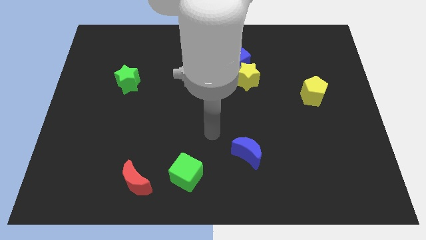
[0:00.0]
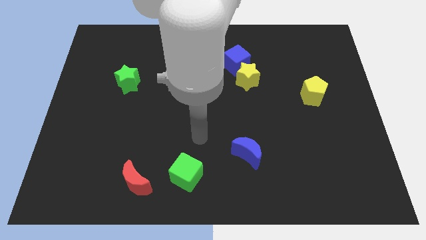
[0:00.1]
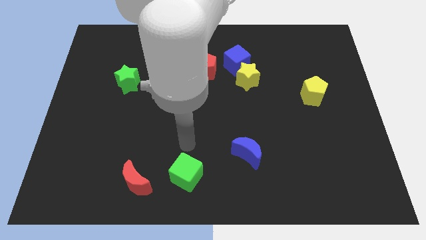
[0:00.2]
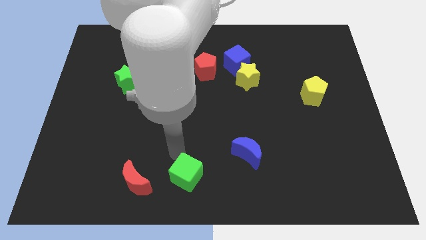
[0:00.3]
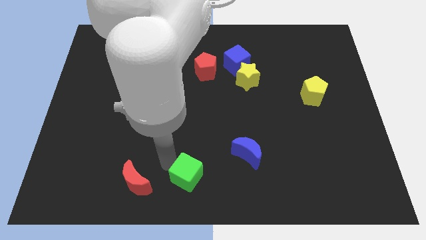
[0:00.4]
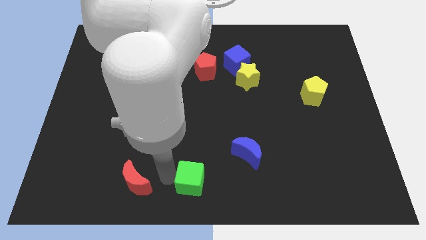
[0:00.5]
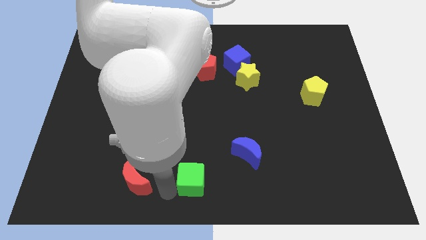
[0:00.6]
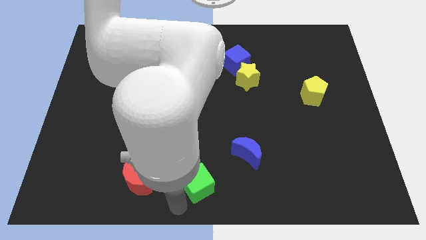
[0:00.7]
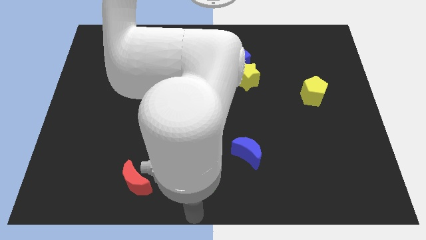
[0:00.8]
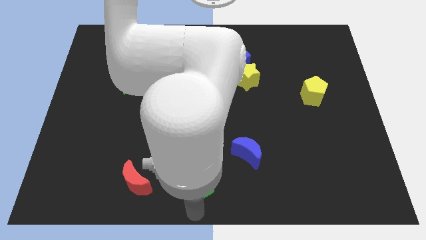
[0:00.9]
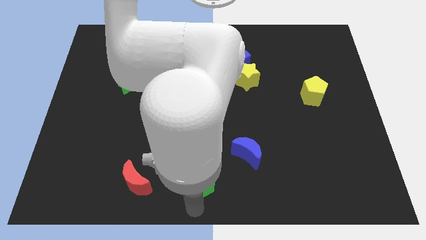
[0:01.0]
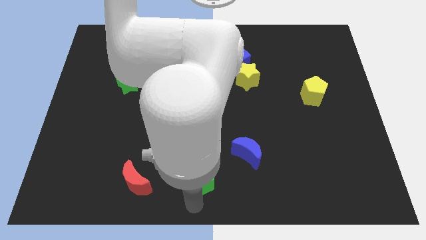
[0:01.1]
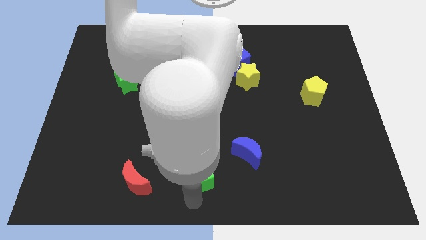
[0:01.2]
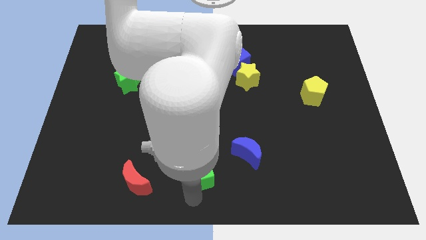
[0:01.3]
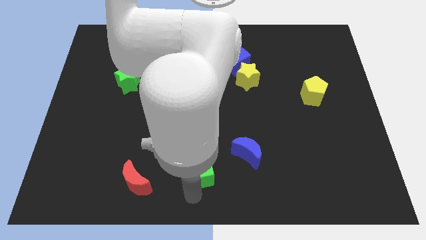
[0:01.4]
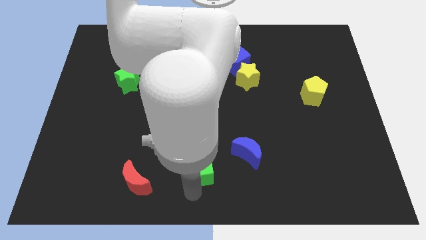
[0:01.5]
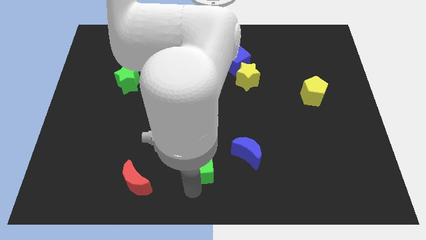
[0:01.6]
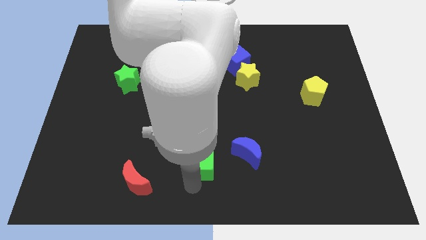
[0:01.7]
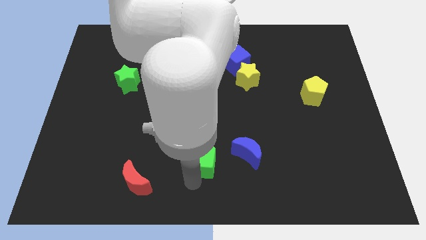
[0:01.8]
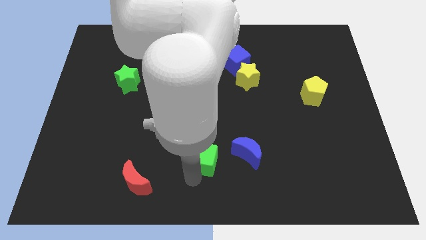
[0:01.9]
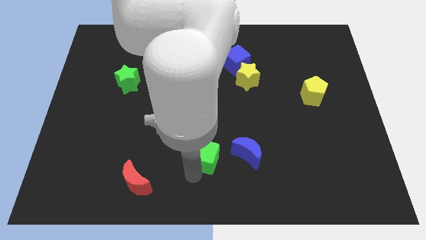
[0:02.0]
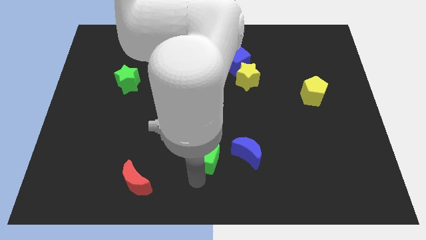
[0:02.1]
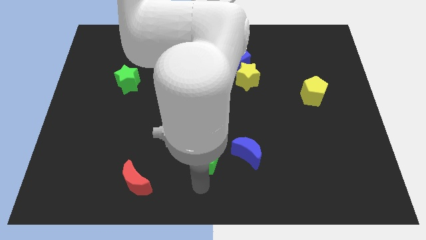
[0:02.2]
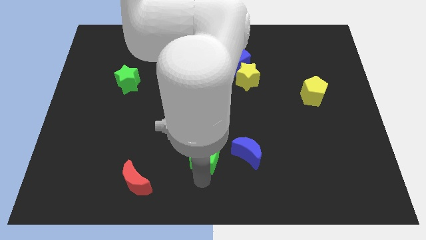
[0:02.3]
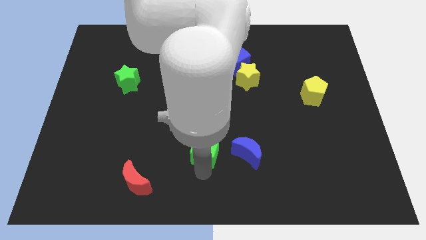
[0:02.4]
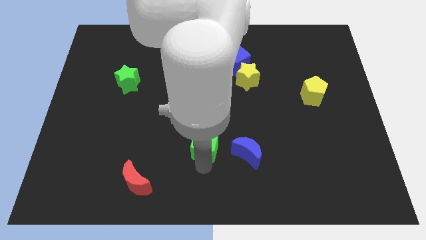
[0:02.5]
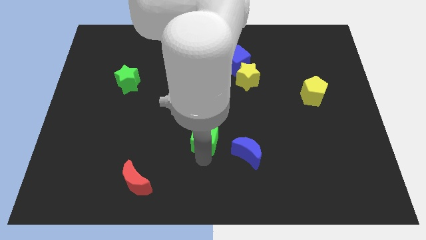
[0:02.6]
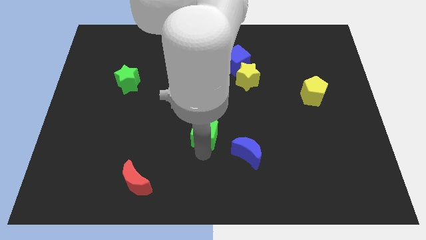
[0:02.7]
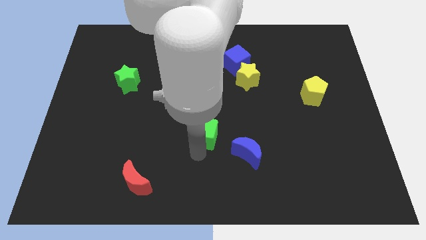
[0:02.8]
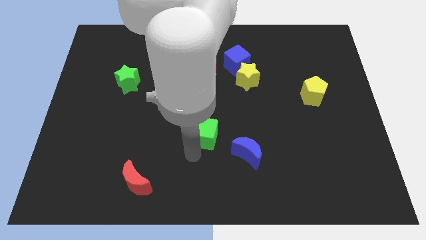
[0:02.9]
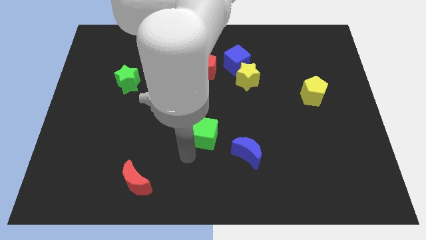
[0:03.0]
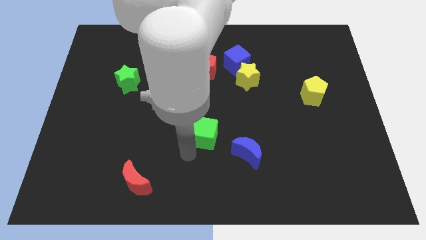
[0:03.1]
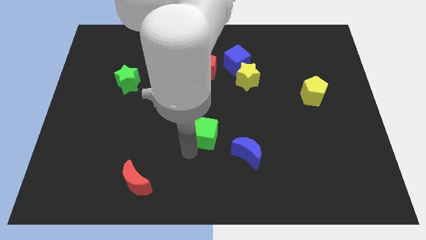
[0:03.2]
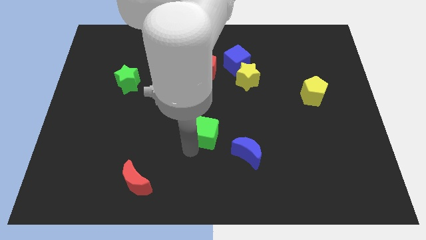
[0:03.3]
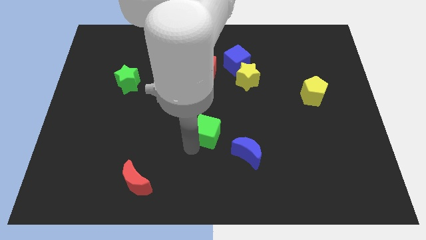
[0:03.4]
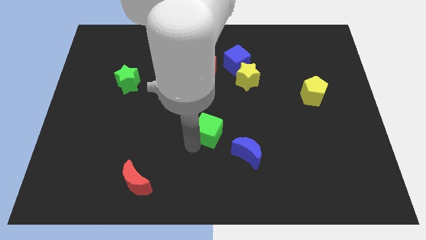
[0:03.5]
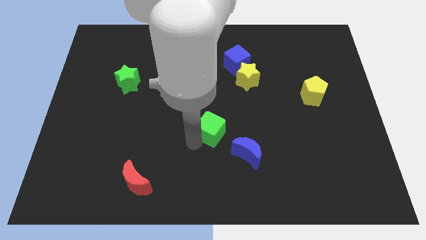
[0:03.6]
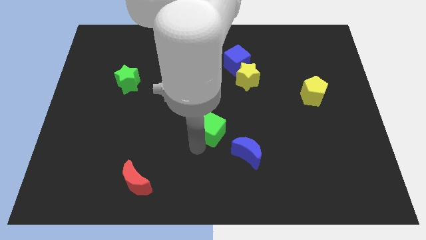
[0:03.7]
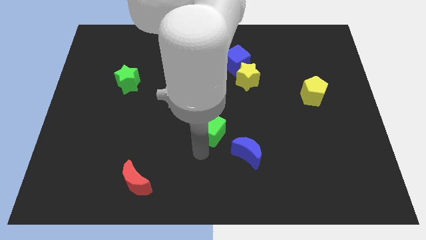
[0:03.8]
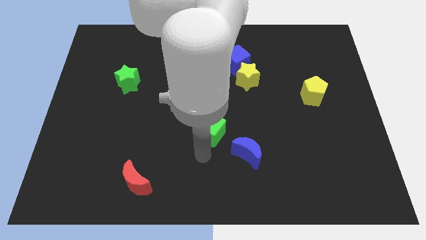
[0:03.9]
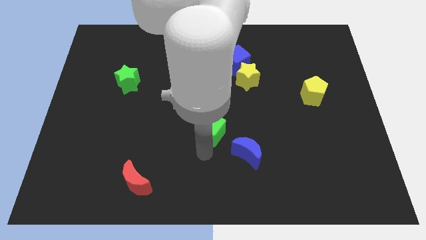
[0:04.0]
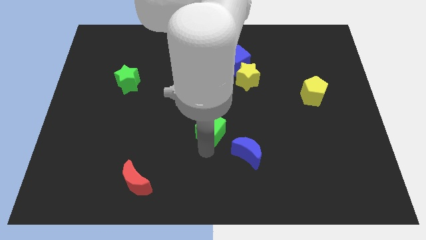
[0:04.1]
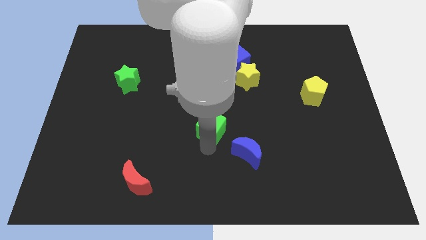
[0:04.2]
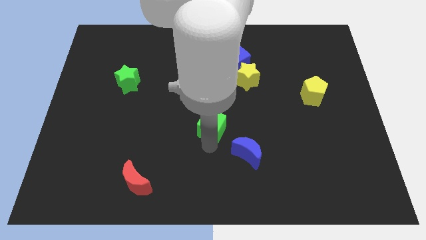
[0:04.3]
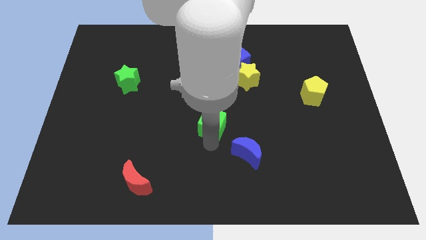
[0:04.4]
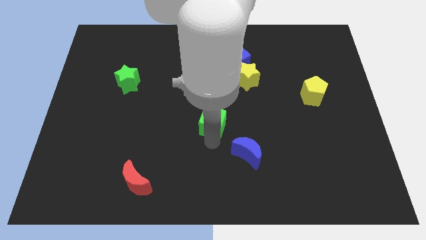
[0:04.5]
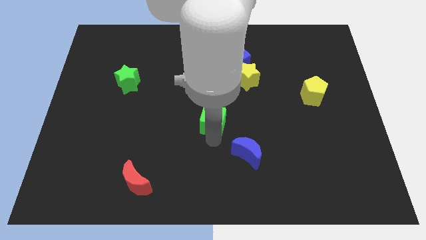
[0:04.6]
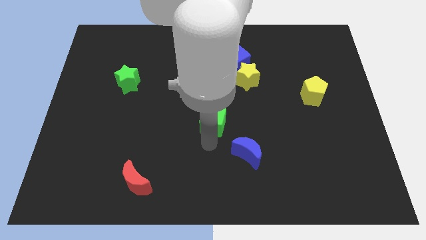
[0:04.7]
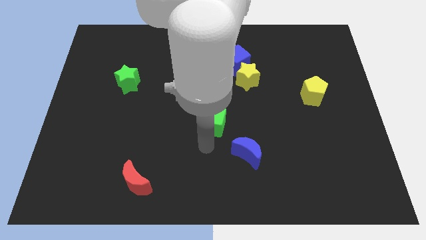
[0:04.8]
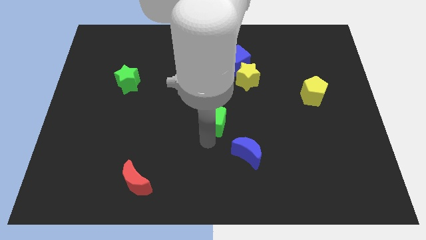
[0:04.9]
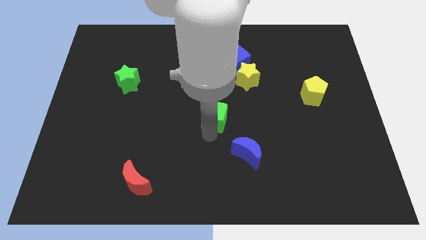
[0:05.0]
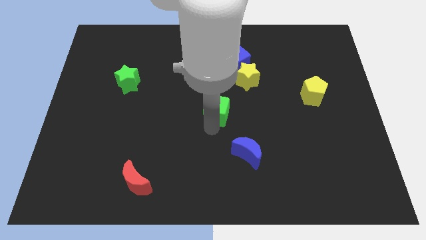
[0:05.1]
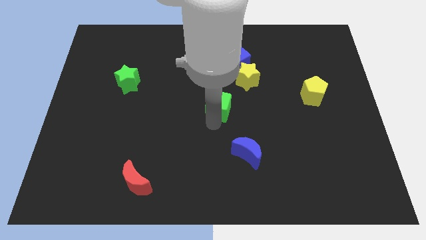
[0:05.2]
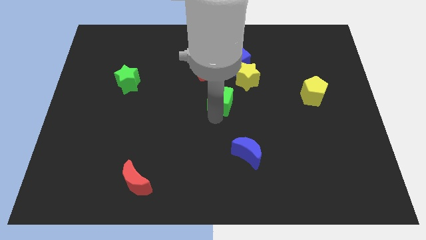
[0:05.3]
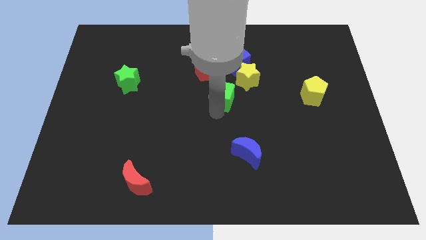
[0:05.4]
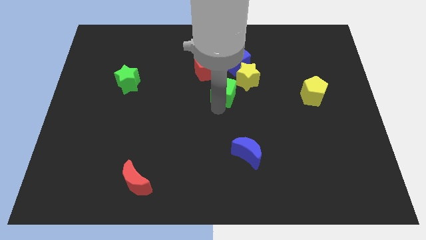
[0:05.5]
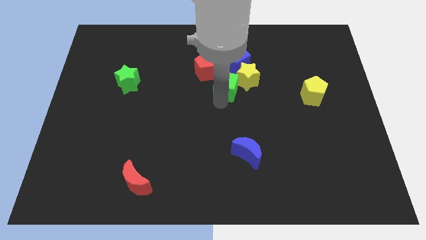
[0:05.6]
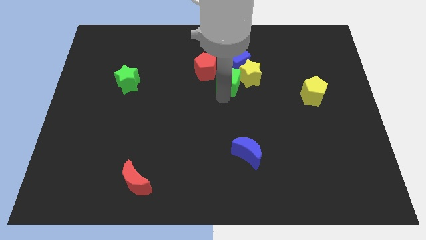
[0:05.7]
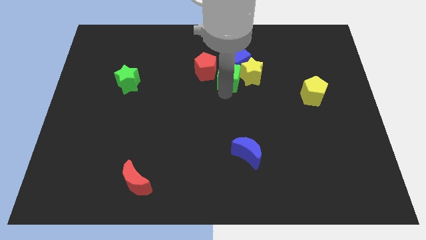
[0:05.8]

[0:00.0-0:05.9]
slide the green cube next to the blue cube

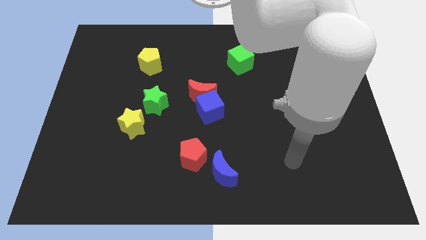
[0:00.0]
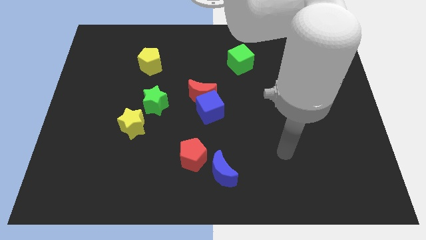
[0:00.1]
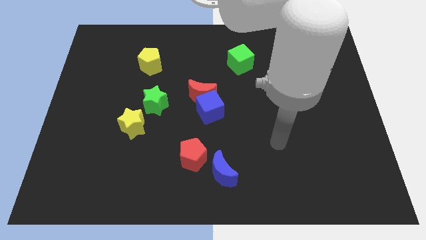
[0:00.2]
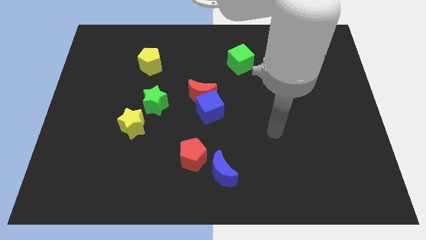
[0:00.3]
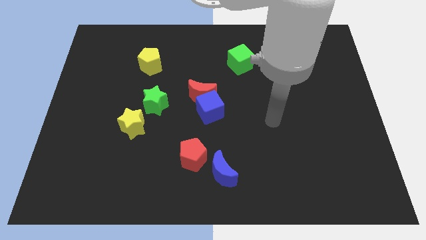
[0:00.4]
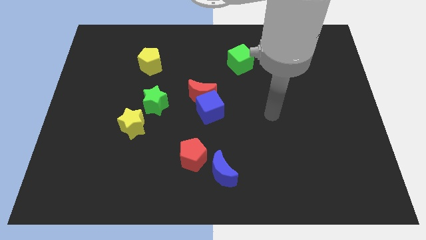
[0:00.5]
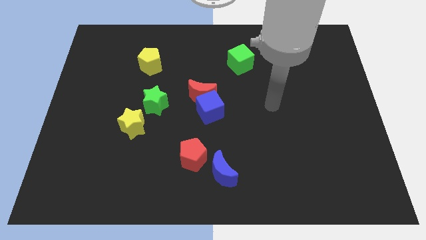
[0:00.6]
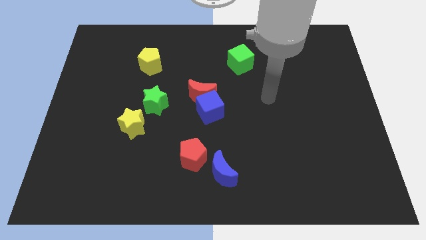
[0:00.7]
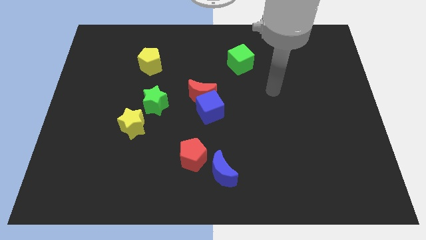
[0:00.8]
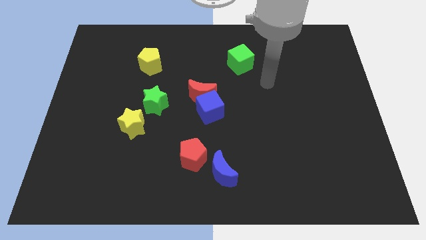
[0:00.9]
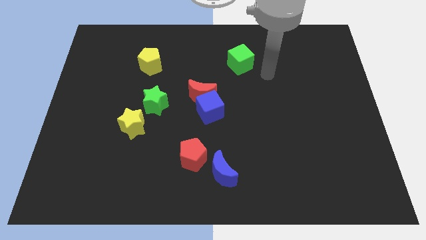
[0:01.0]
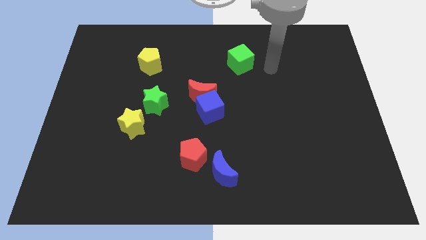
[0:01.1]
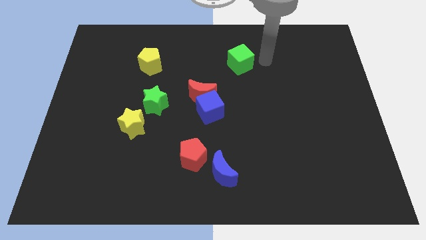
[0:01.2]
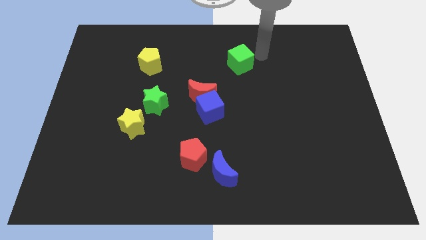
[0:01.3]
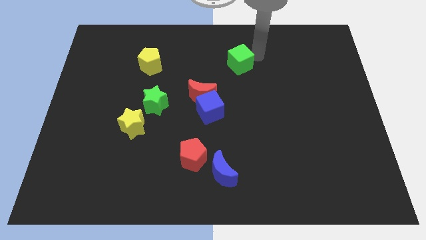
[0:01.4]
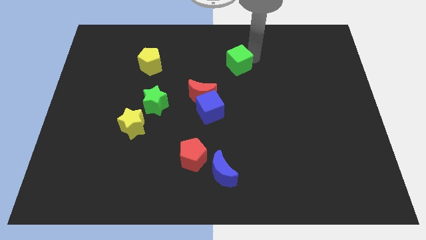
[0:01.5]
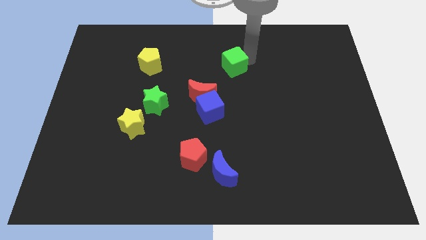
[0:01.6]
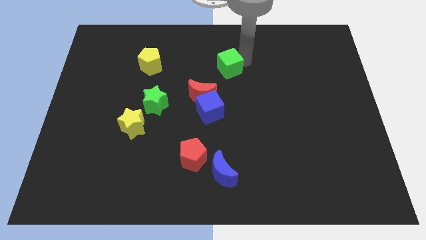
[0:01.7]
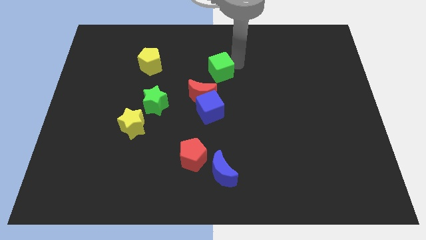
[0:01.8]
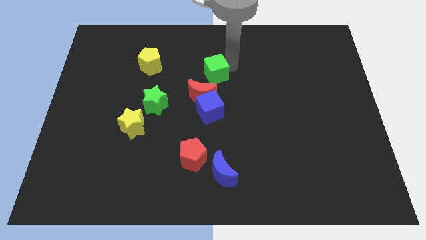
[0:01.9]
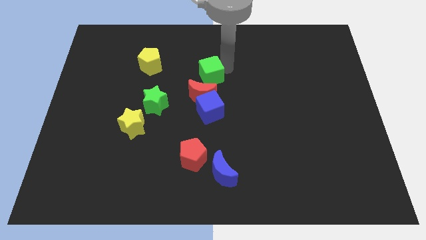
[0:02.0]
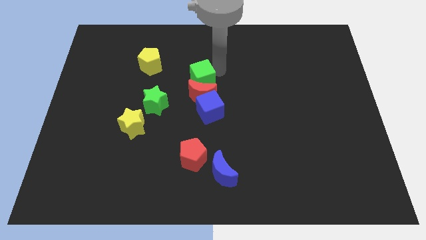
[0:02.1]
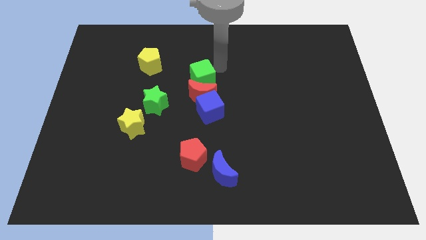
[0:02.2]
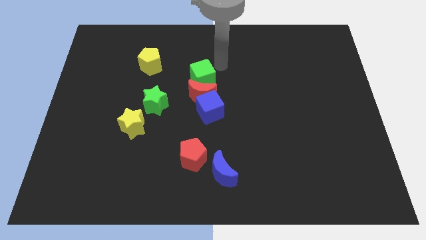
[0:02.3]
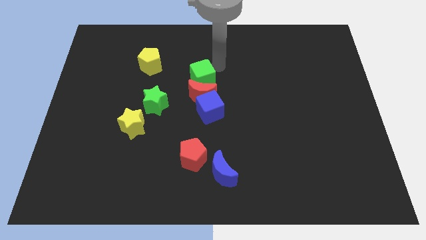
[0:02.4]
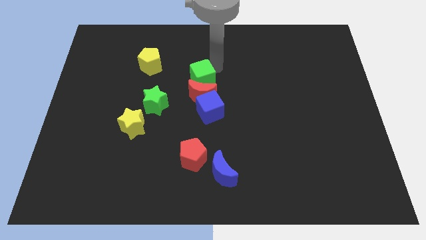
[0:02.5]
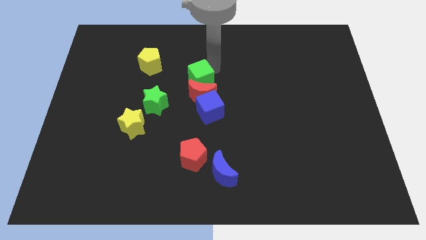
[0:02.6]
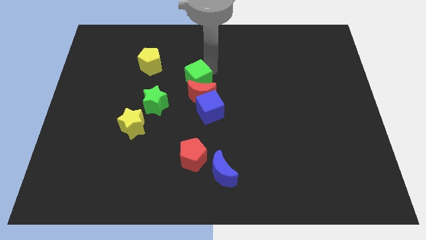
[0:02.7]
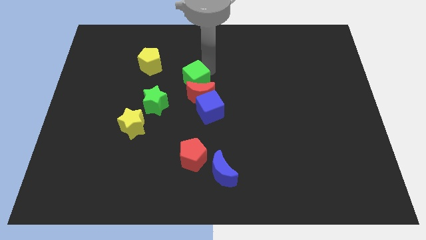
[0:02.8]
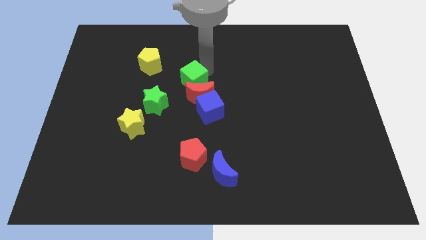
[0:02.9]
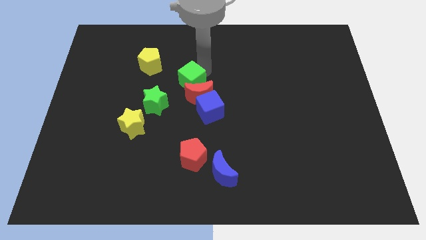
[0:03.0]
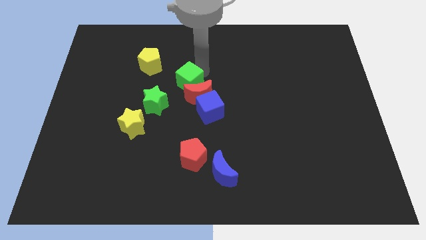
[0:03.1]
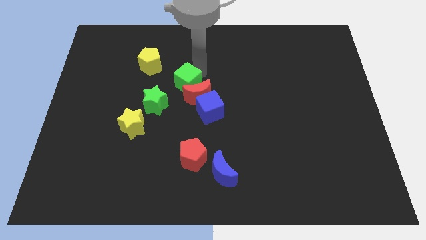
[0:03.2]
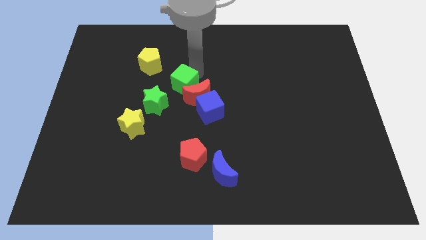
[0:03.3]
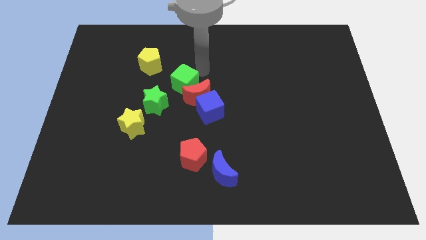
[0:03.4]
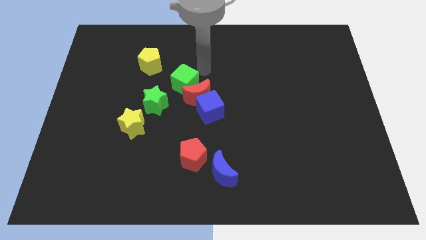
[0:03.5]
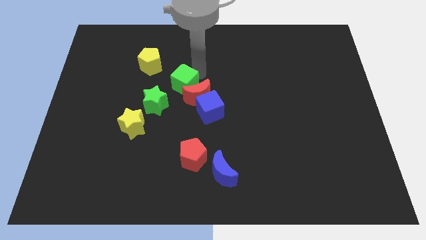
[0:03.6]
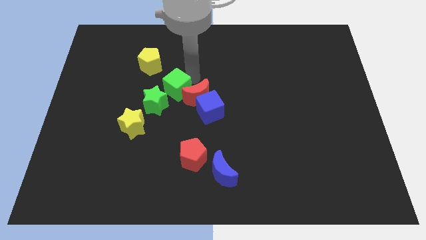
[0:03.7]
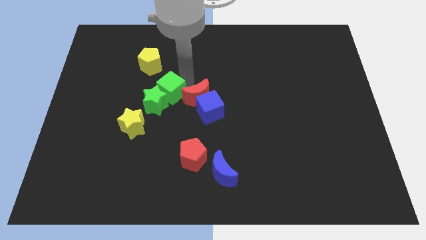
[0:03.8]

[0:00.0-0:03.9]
slide the green cube to the green star
